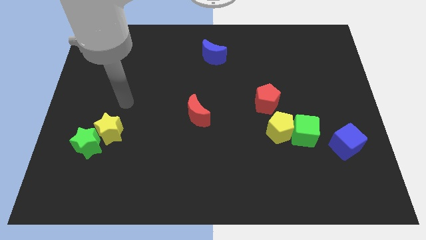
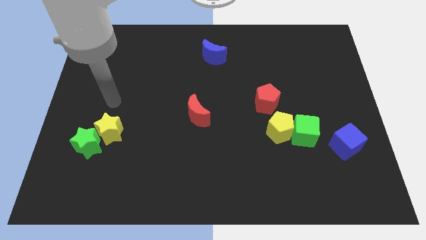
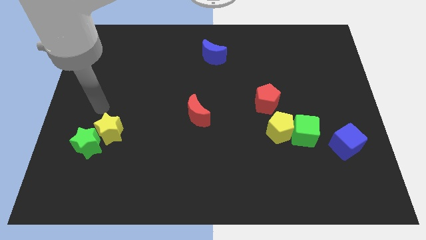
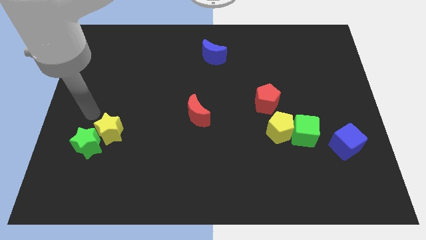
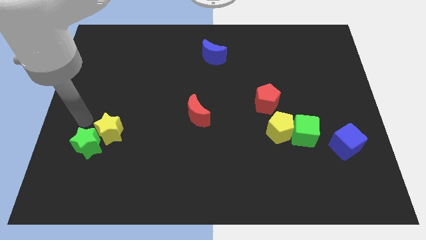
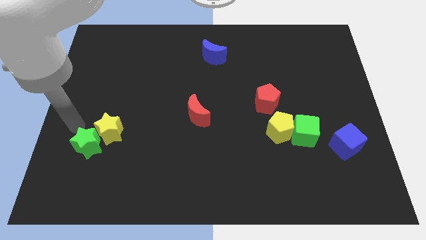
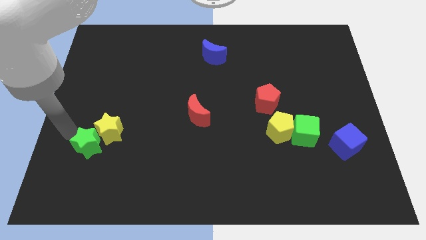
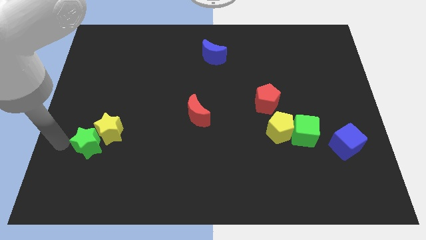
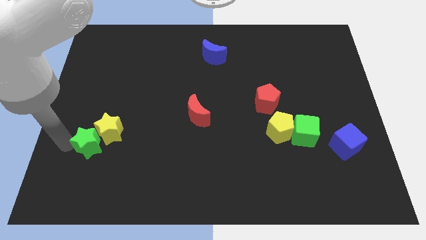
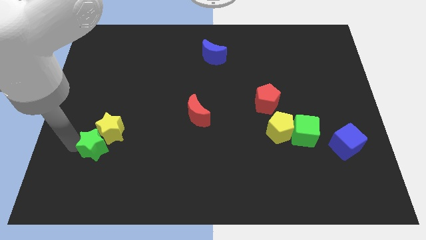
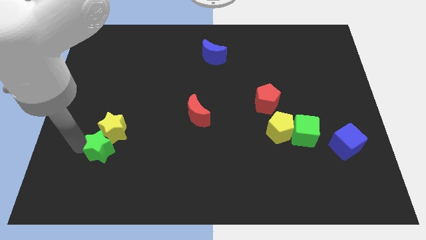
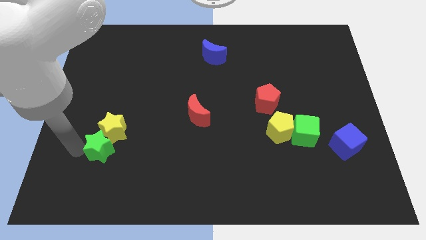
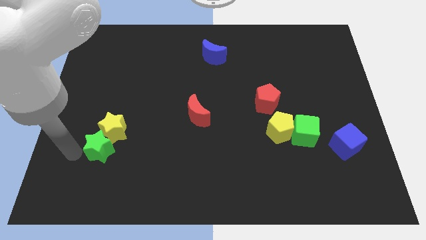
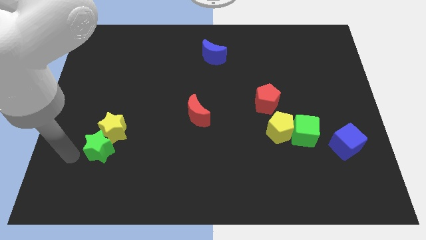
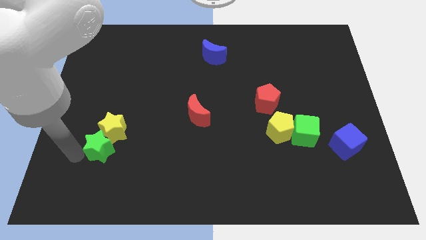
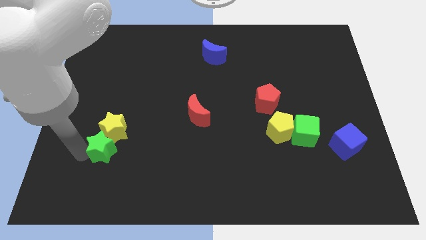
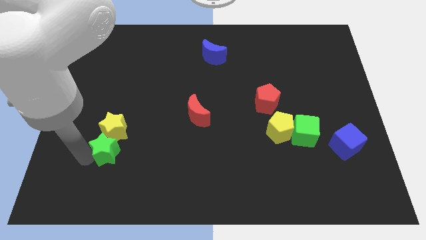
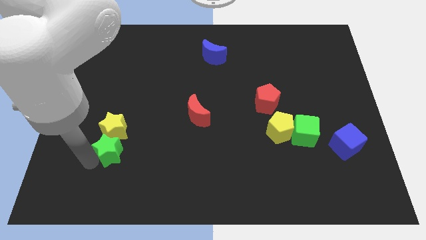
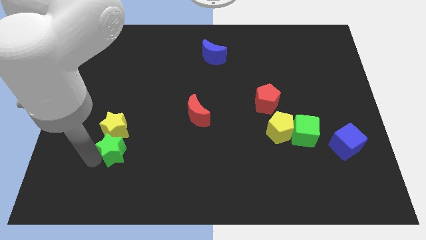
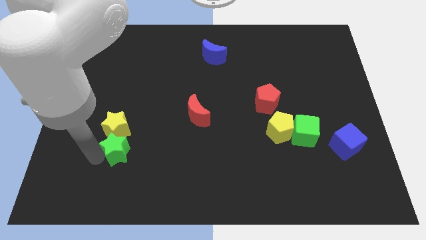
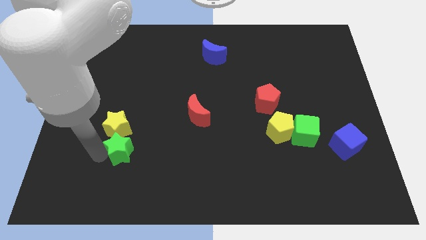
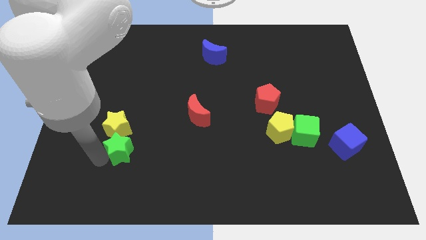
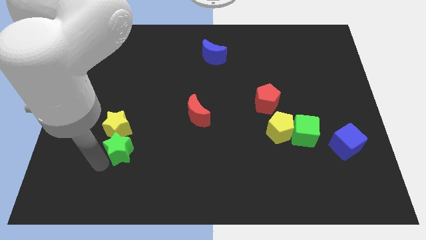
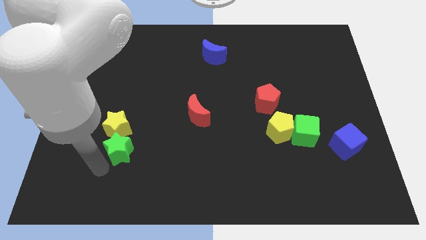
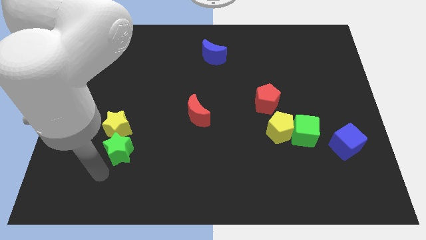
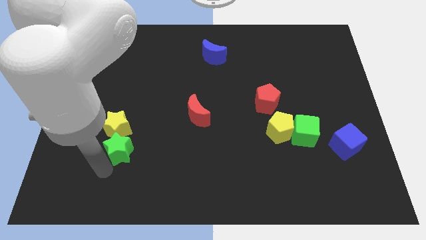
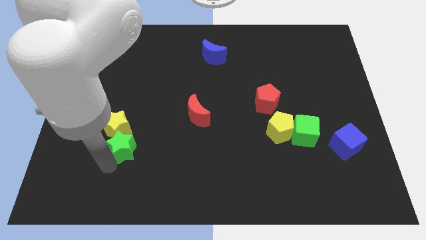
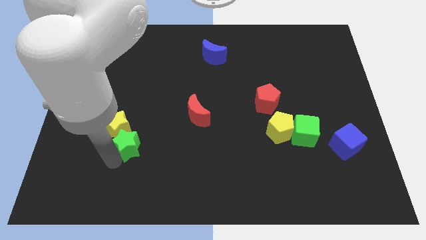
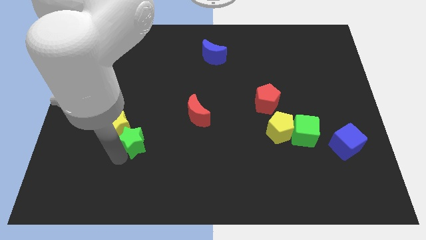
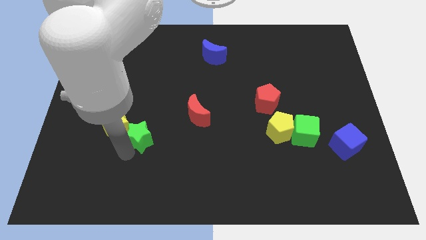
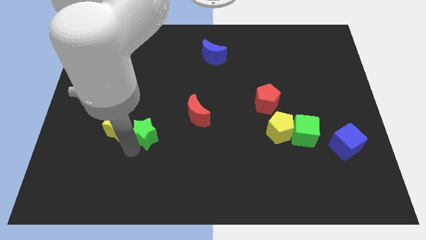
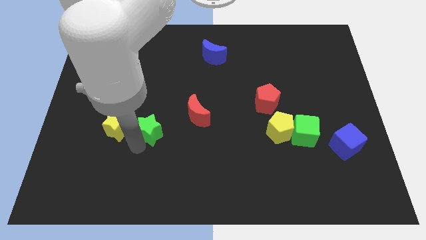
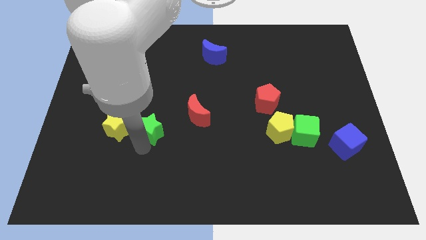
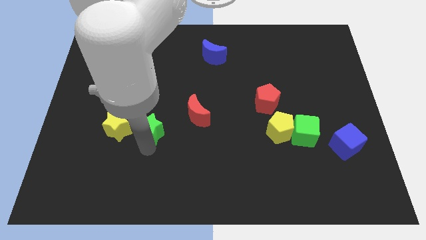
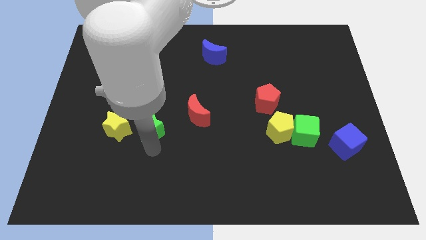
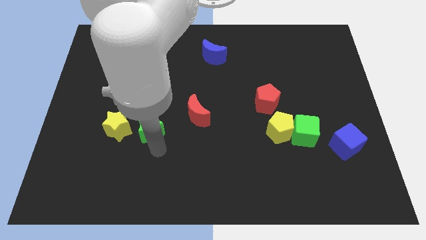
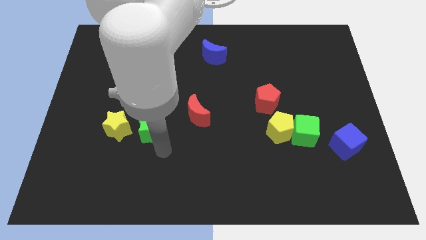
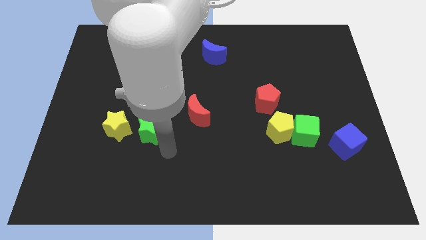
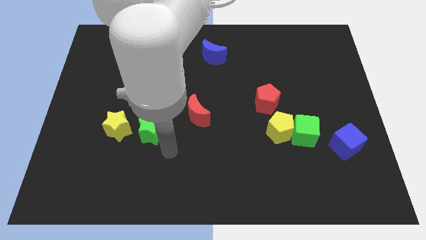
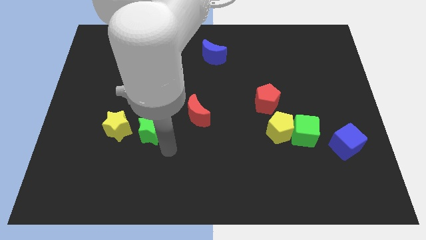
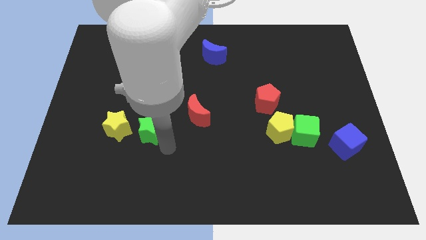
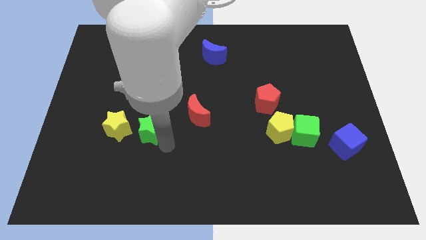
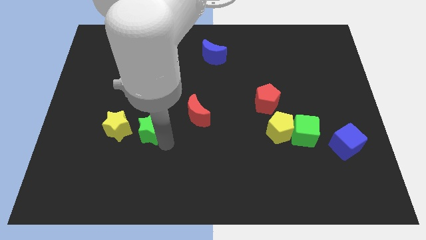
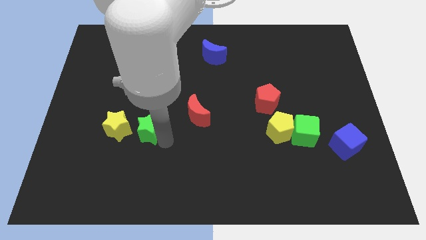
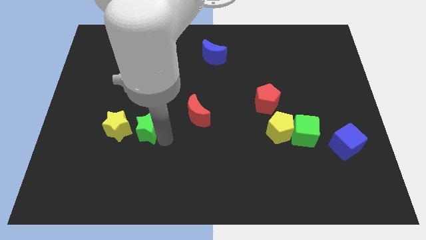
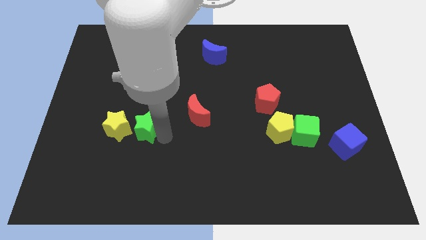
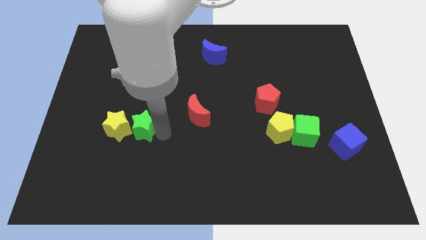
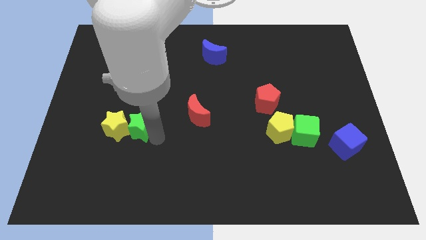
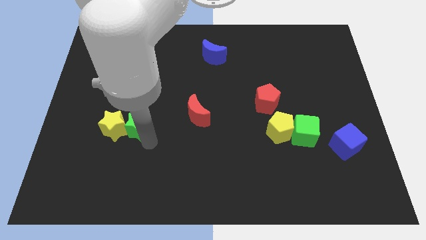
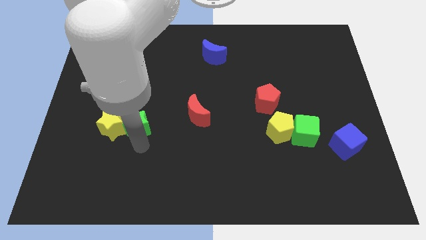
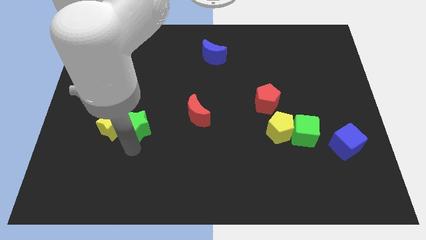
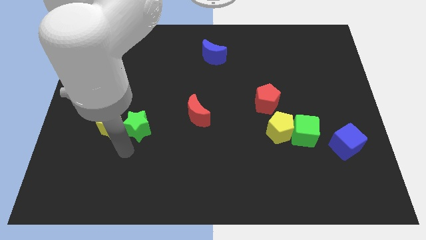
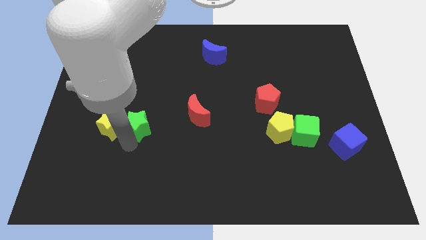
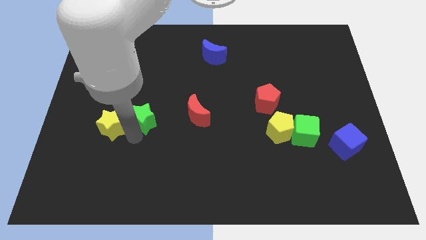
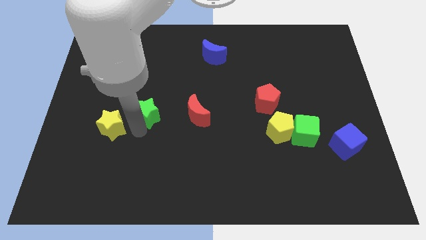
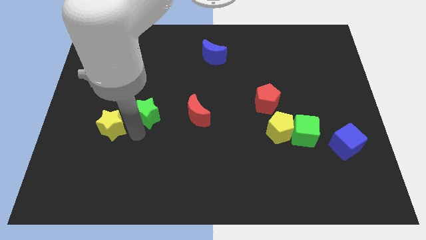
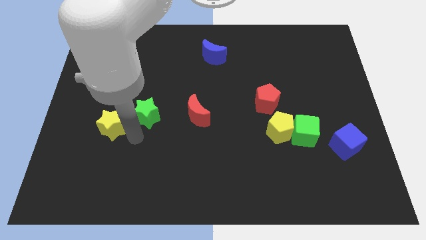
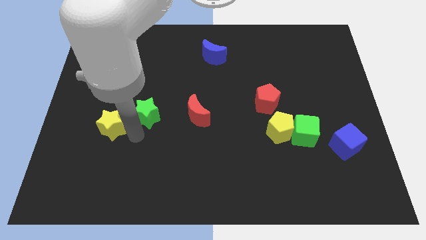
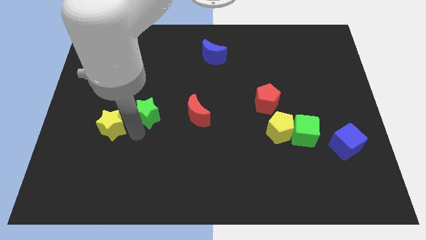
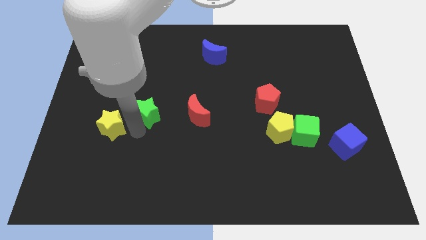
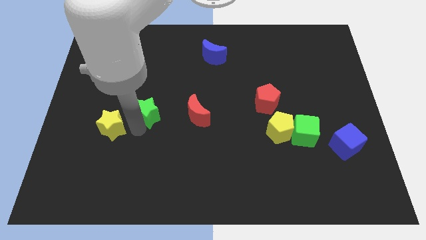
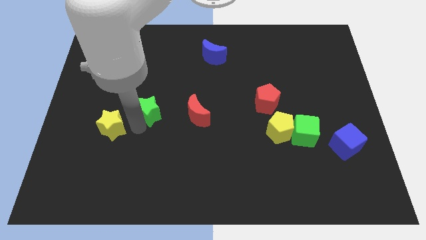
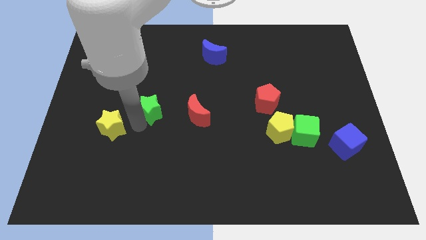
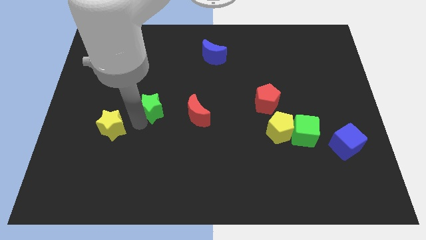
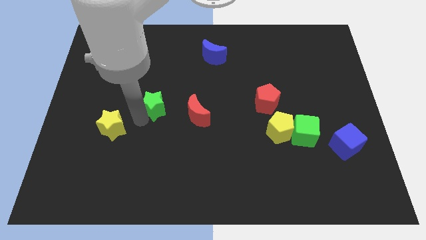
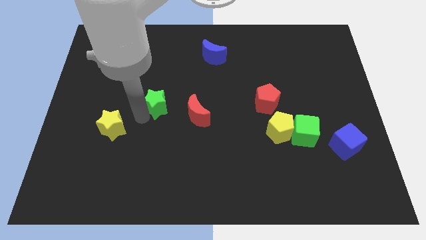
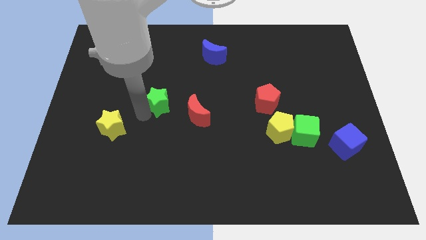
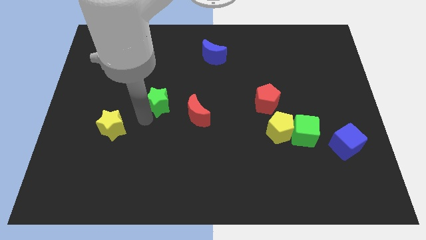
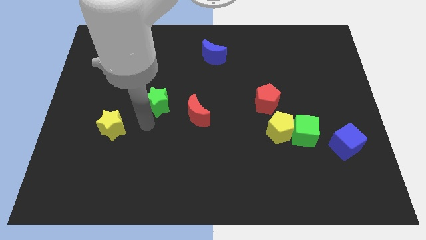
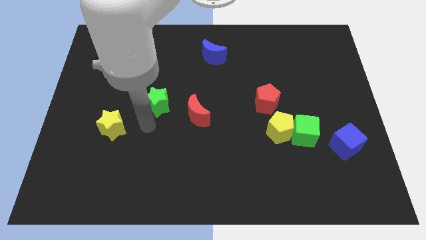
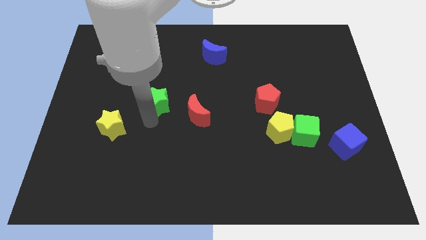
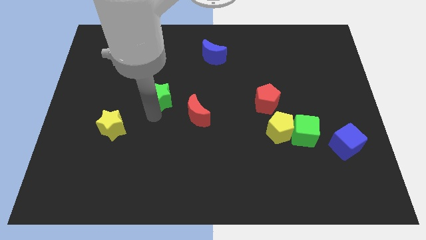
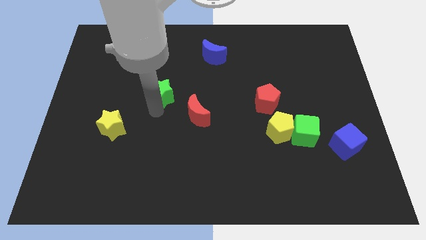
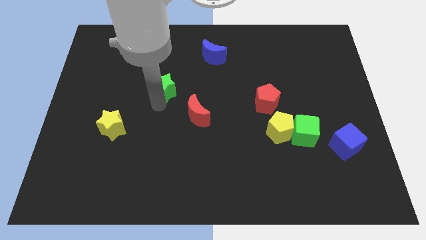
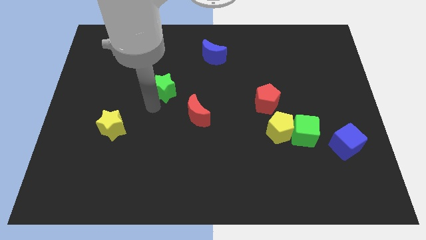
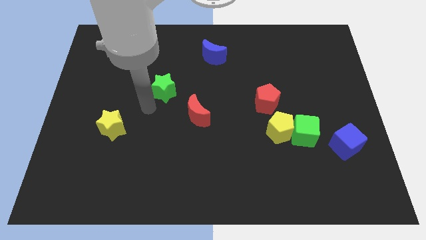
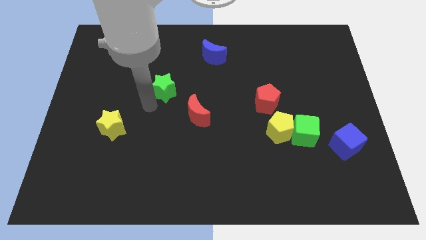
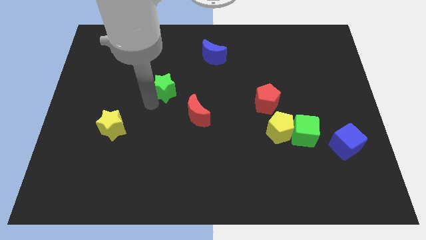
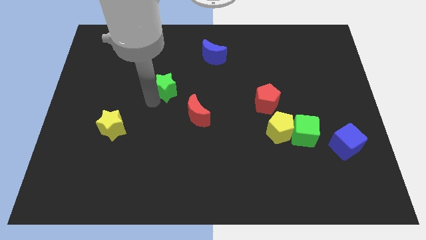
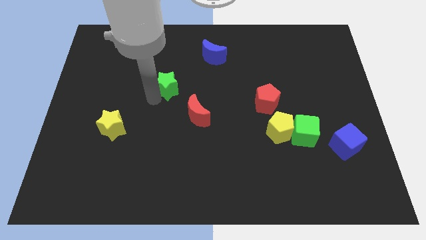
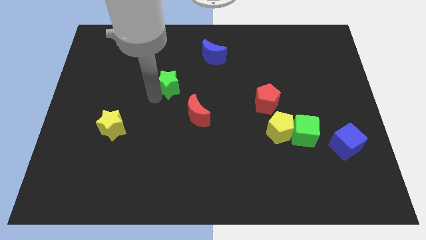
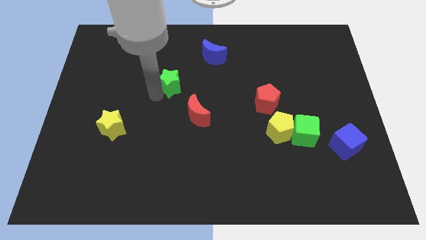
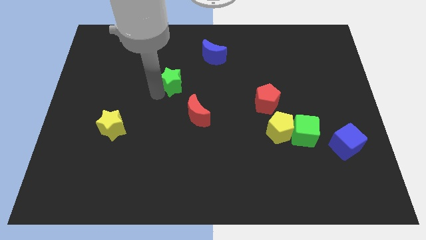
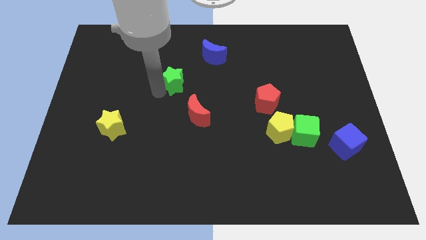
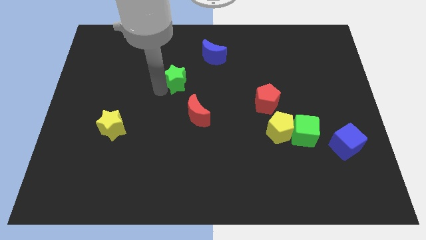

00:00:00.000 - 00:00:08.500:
move the green star to the bottom left side of the blue moon

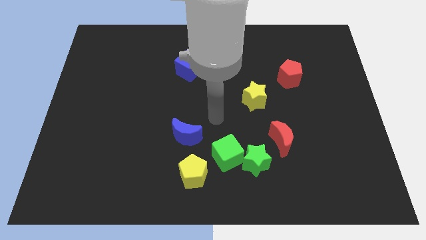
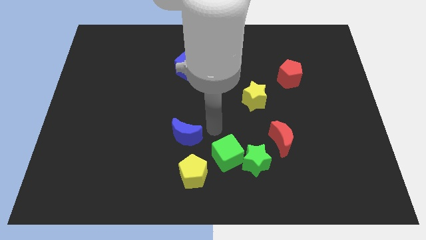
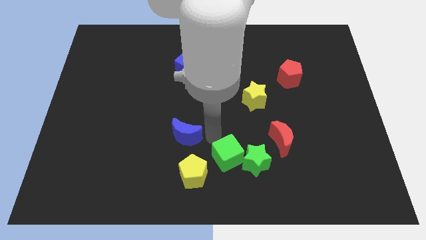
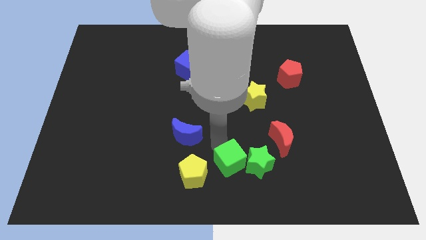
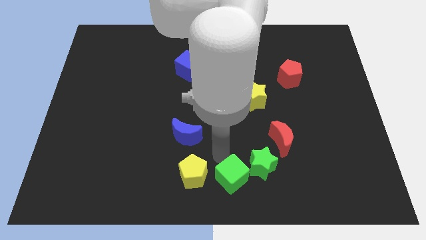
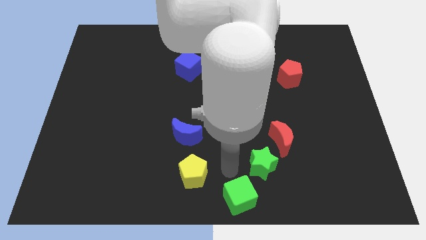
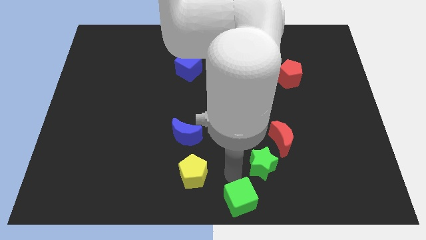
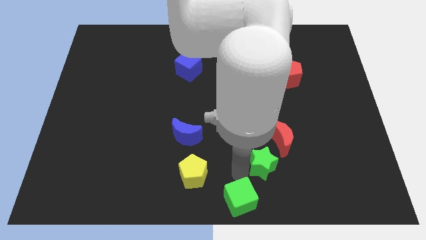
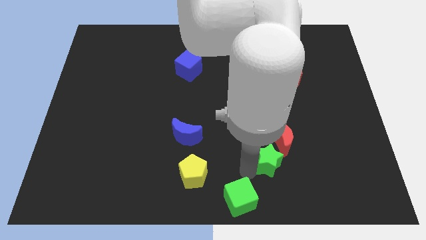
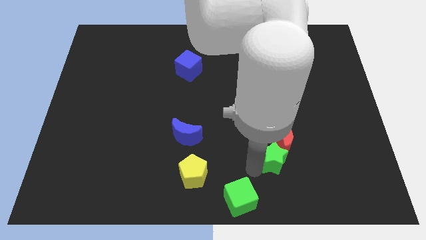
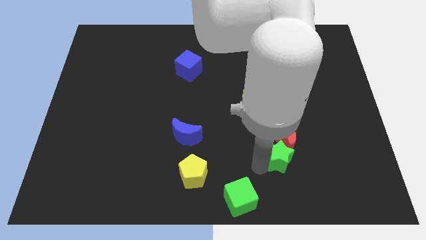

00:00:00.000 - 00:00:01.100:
push the green star to the bottom right of the red moon
